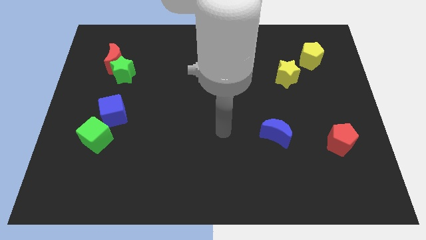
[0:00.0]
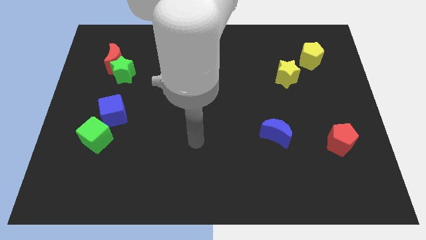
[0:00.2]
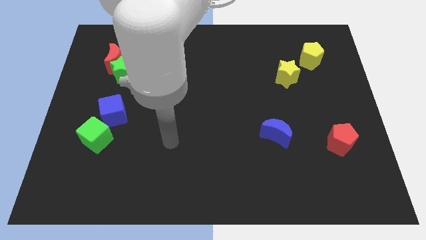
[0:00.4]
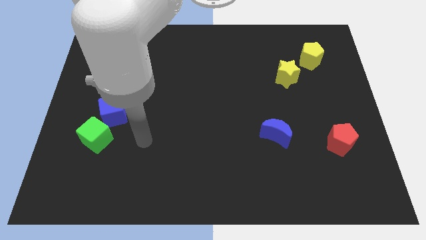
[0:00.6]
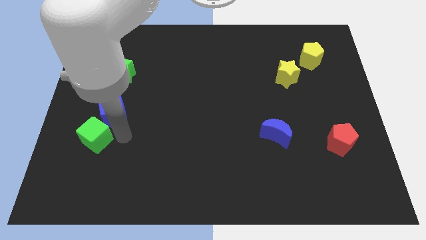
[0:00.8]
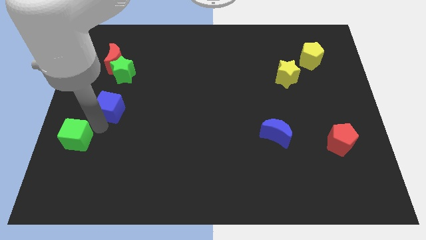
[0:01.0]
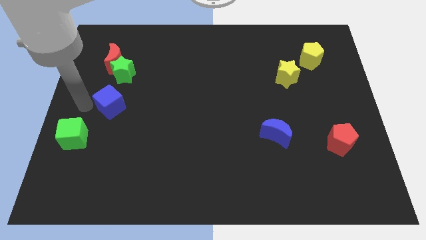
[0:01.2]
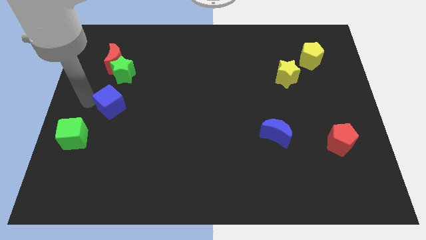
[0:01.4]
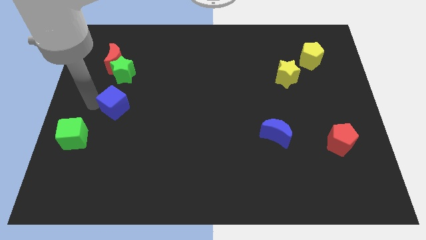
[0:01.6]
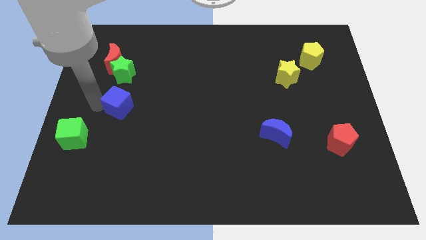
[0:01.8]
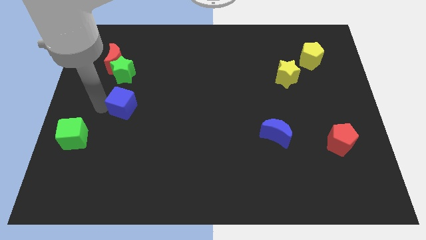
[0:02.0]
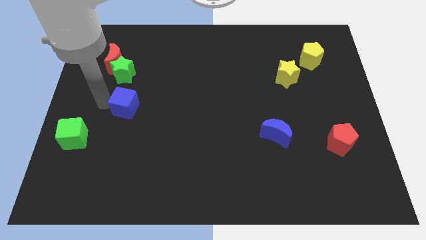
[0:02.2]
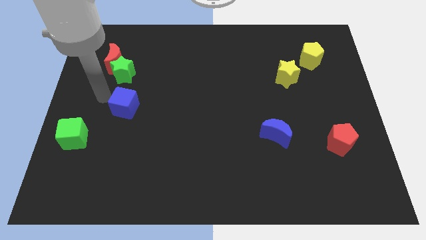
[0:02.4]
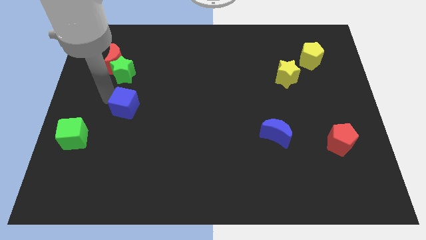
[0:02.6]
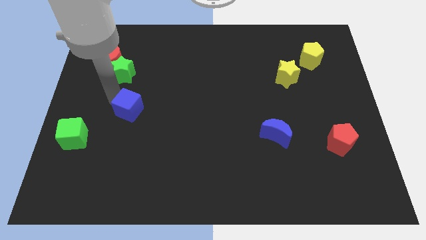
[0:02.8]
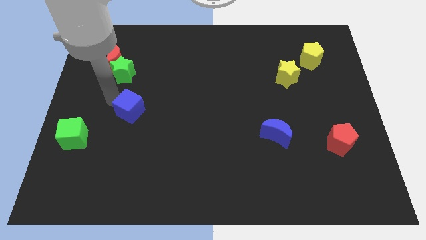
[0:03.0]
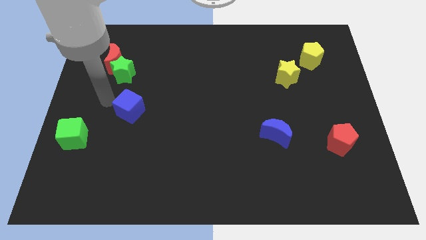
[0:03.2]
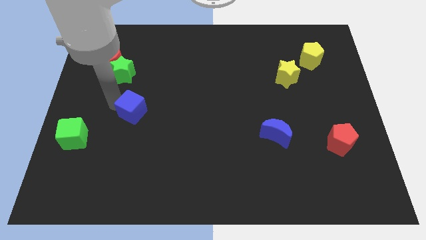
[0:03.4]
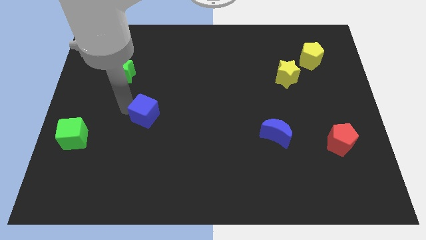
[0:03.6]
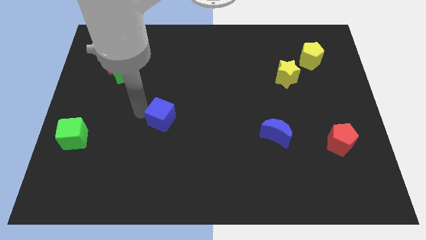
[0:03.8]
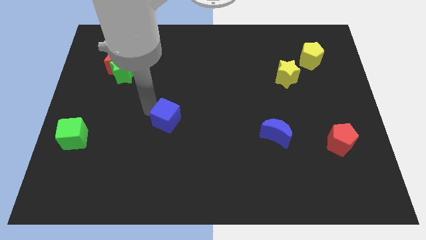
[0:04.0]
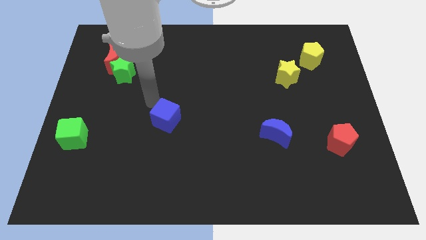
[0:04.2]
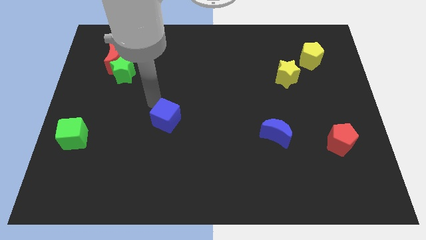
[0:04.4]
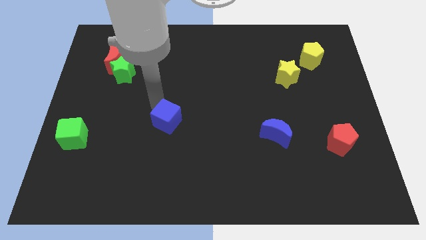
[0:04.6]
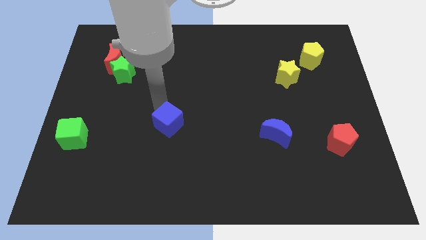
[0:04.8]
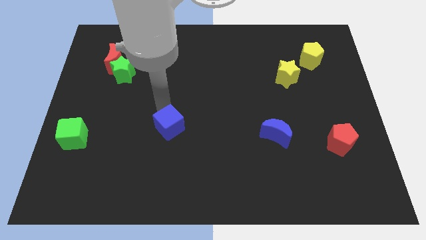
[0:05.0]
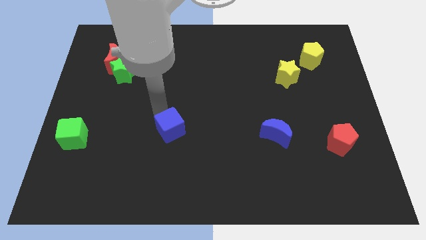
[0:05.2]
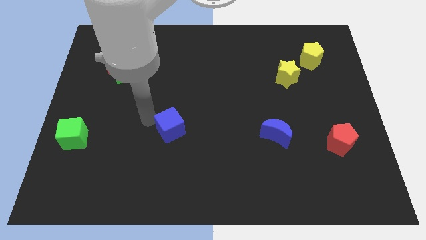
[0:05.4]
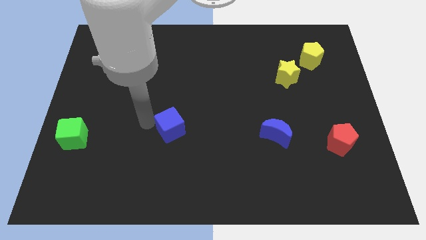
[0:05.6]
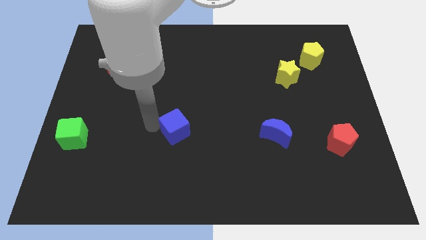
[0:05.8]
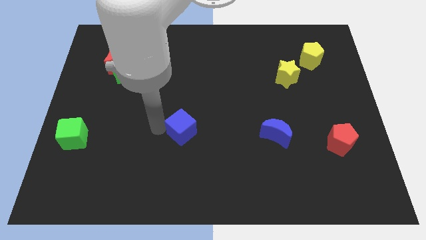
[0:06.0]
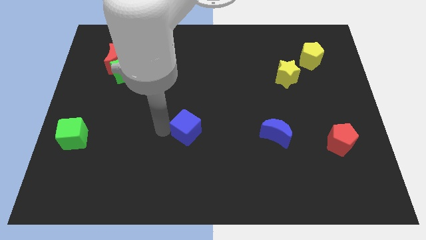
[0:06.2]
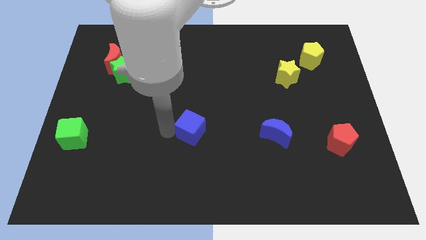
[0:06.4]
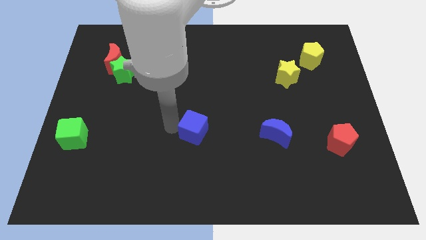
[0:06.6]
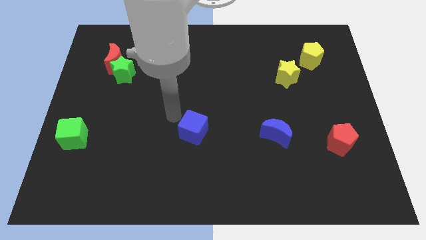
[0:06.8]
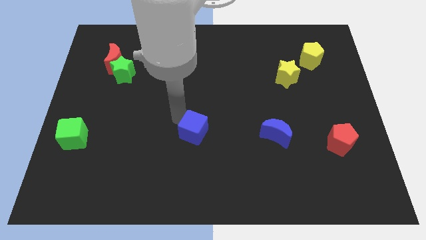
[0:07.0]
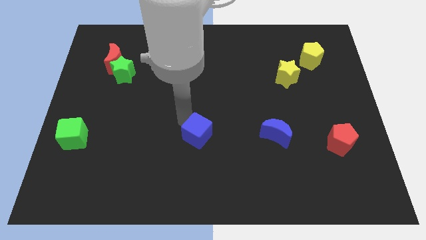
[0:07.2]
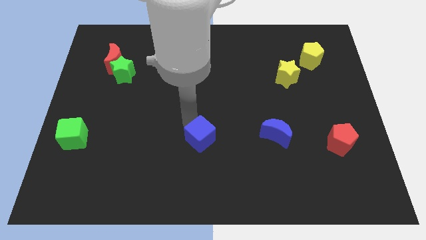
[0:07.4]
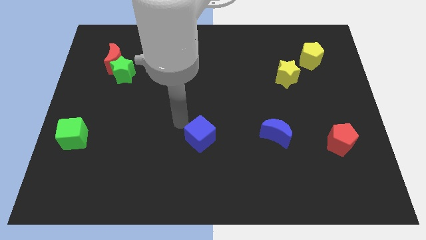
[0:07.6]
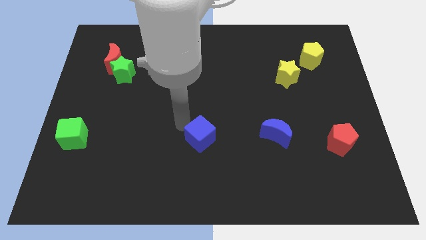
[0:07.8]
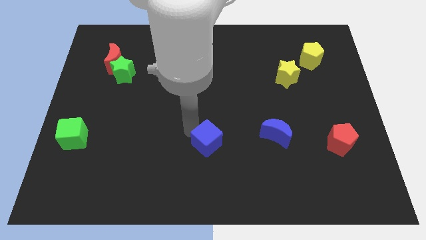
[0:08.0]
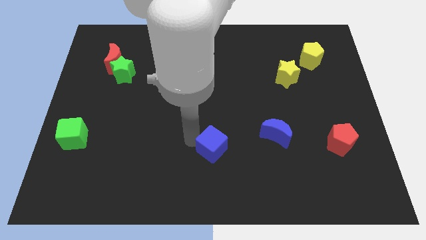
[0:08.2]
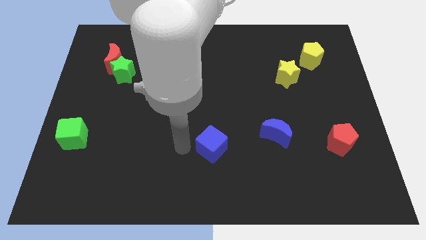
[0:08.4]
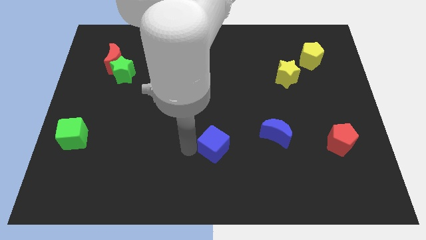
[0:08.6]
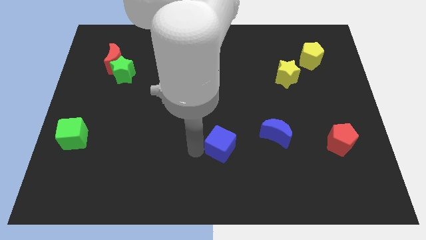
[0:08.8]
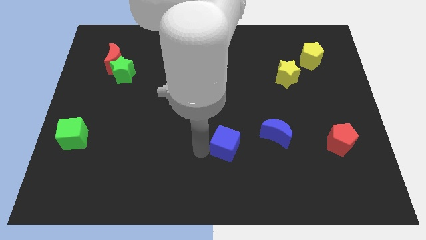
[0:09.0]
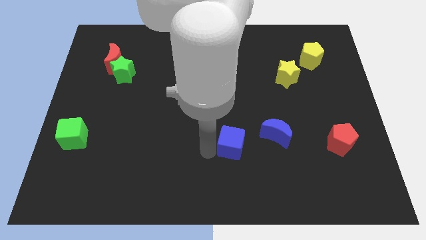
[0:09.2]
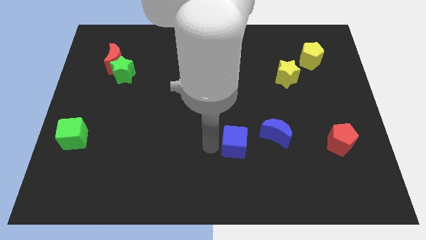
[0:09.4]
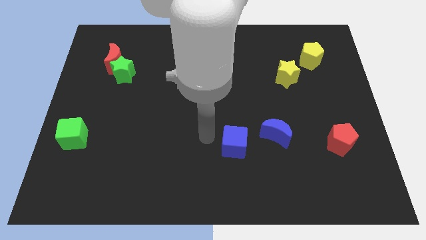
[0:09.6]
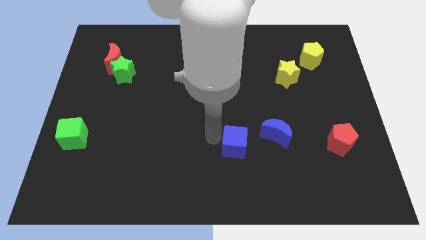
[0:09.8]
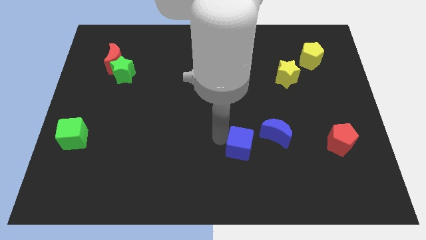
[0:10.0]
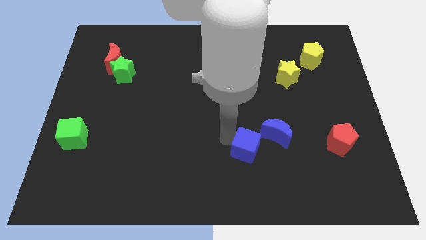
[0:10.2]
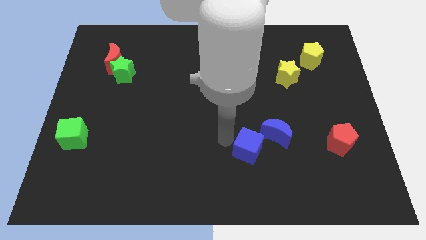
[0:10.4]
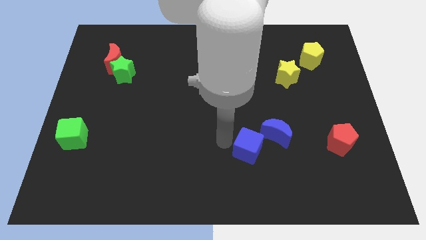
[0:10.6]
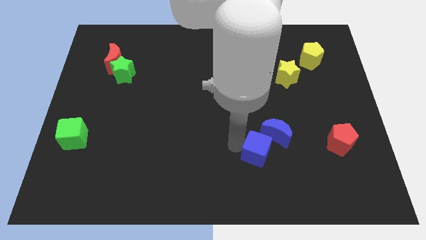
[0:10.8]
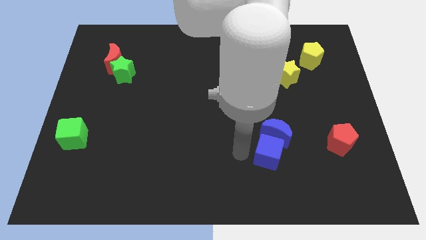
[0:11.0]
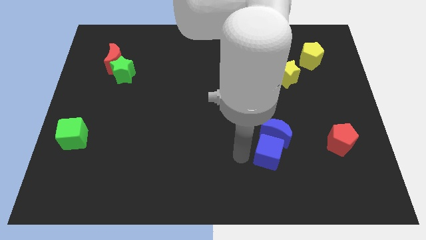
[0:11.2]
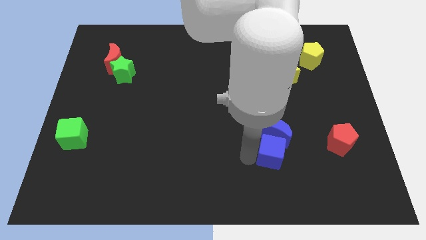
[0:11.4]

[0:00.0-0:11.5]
move the blue cube diagonally down and to the right of the blue moon
